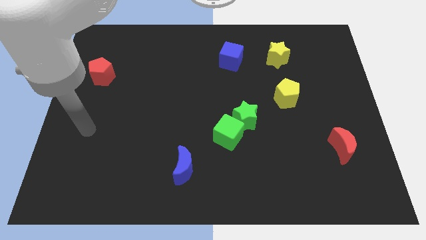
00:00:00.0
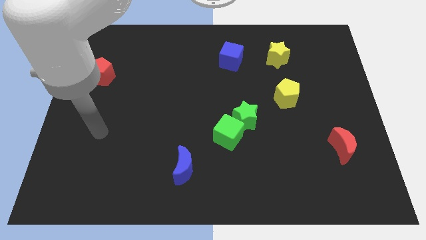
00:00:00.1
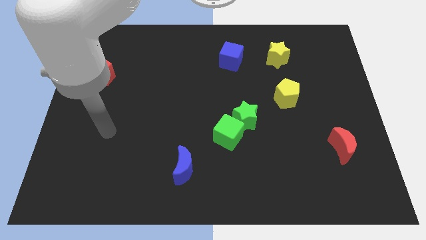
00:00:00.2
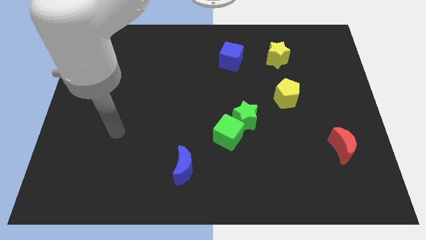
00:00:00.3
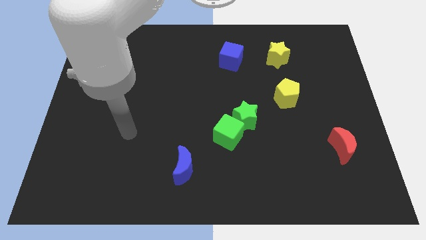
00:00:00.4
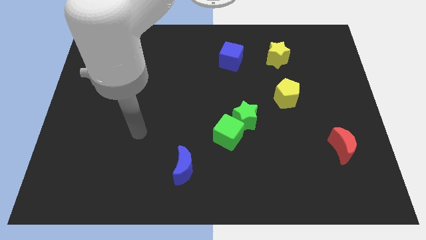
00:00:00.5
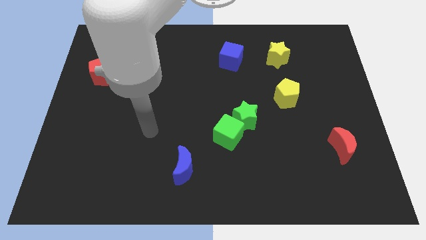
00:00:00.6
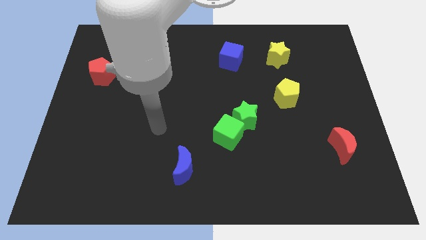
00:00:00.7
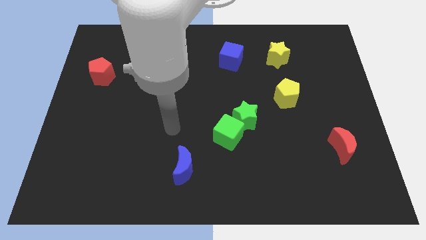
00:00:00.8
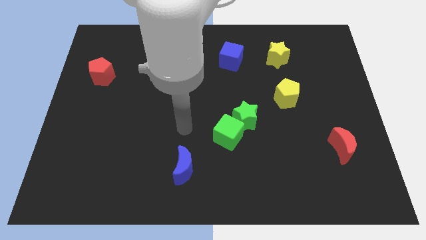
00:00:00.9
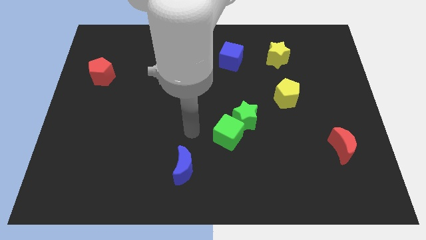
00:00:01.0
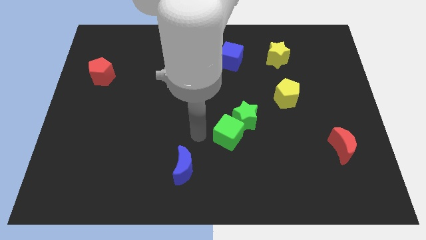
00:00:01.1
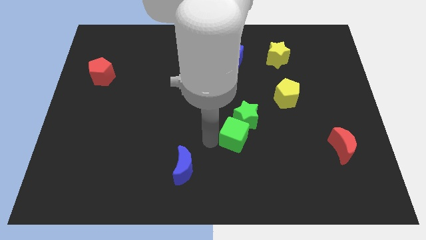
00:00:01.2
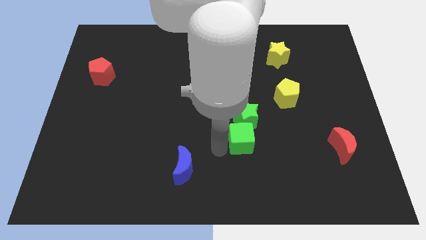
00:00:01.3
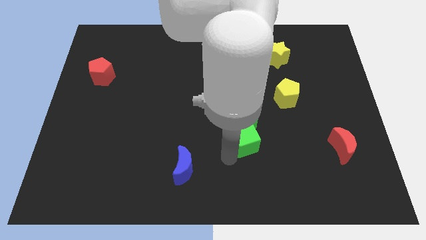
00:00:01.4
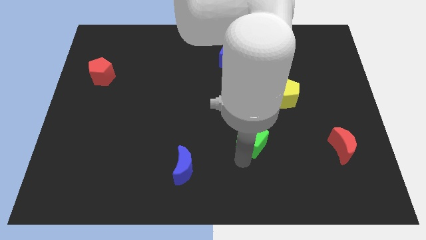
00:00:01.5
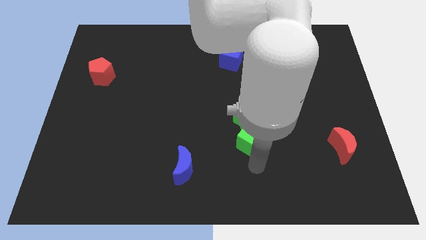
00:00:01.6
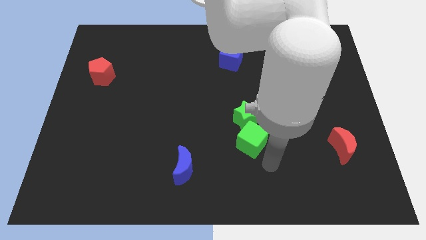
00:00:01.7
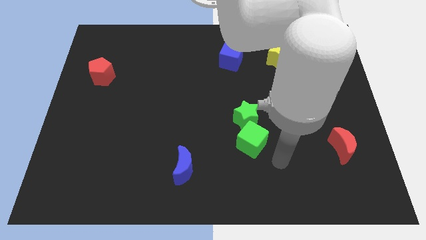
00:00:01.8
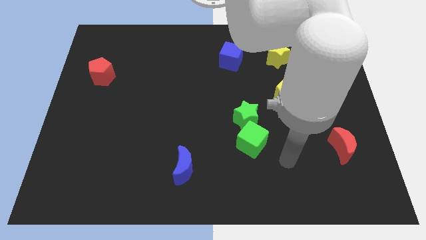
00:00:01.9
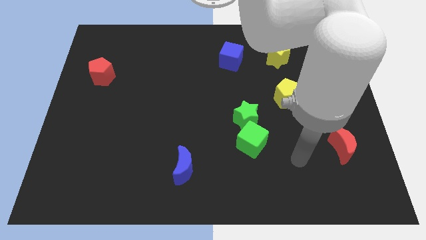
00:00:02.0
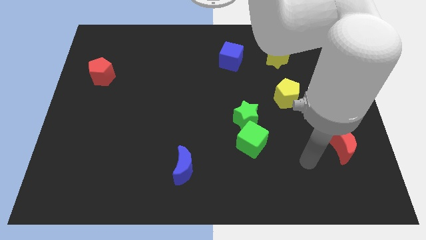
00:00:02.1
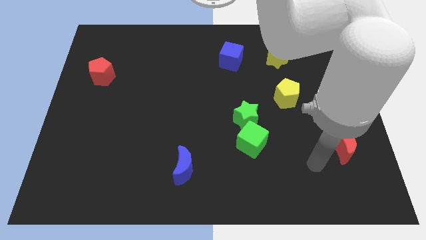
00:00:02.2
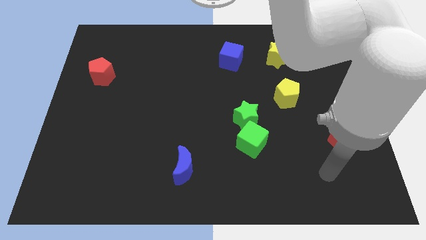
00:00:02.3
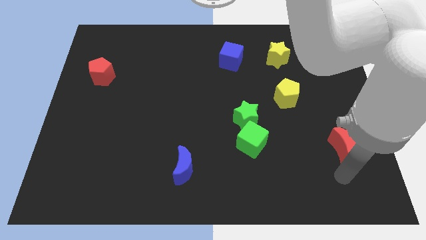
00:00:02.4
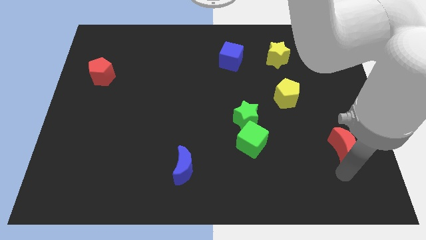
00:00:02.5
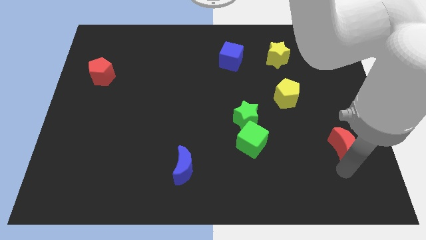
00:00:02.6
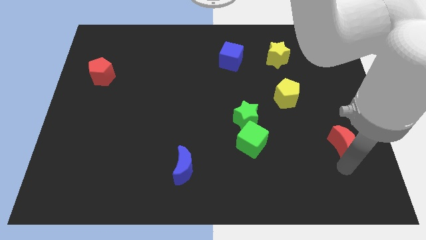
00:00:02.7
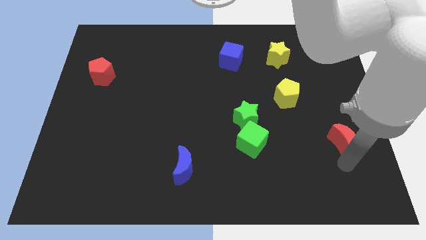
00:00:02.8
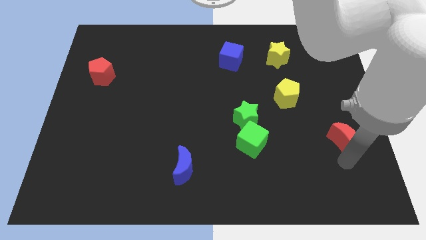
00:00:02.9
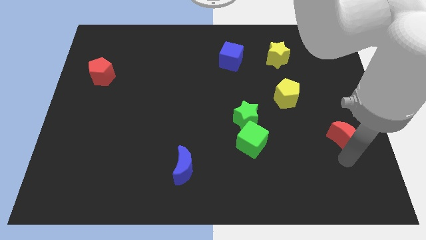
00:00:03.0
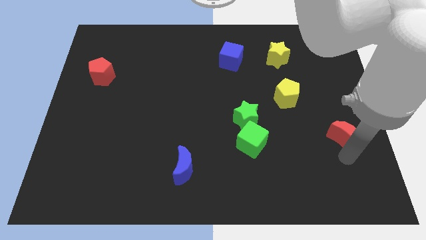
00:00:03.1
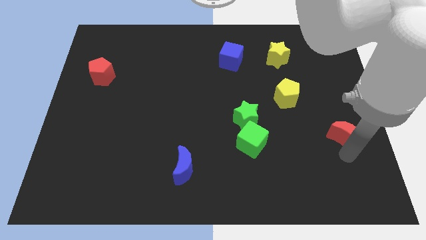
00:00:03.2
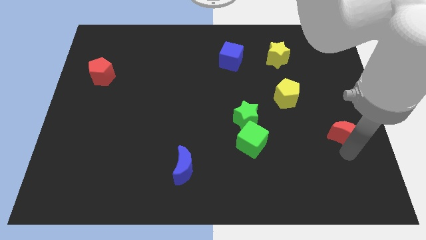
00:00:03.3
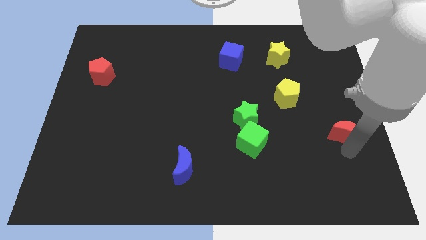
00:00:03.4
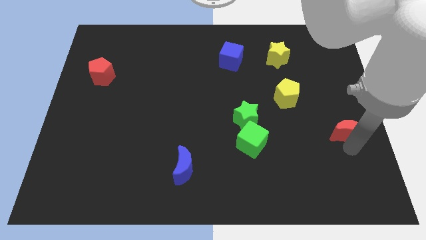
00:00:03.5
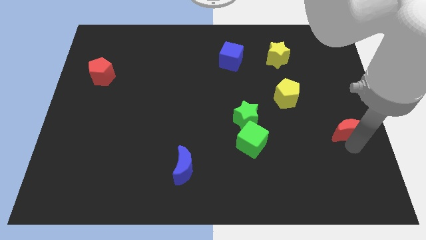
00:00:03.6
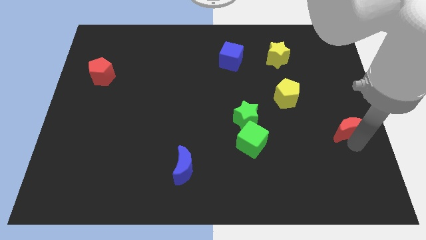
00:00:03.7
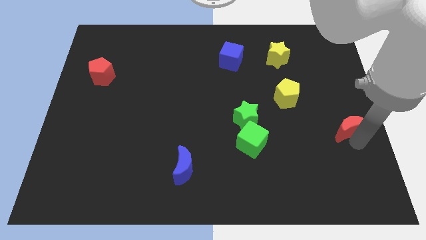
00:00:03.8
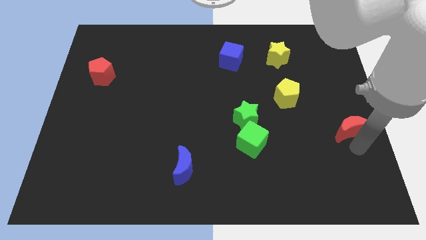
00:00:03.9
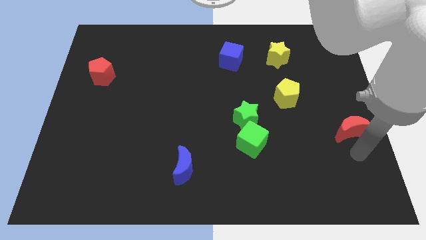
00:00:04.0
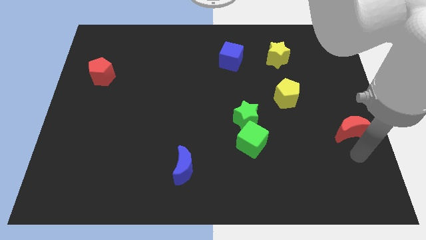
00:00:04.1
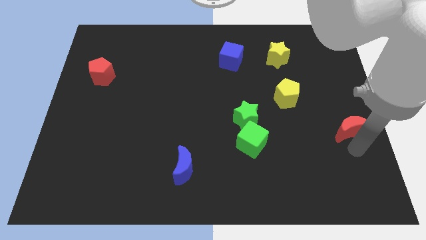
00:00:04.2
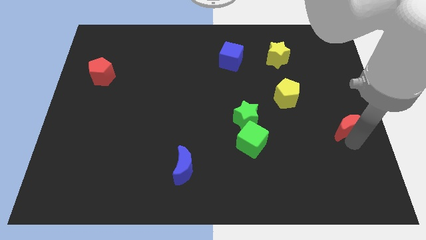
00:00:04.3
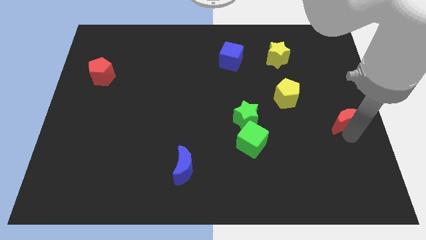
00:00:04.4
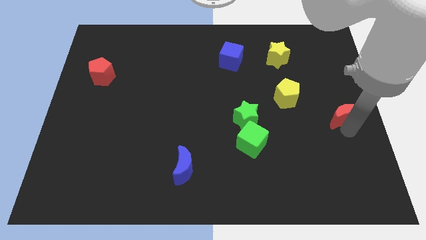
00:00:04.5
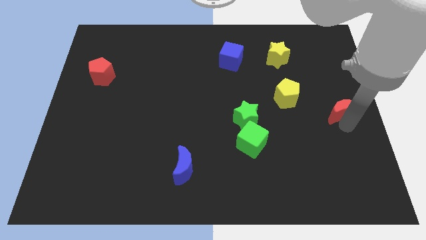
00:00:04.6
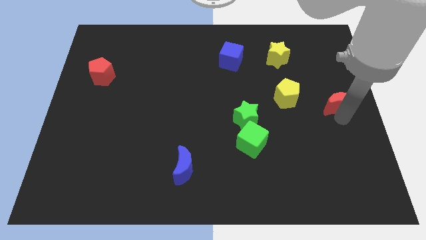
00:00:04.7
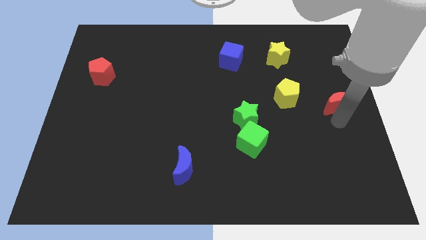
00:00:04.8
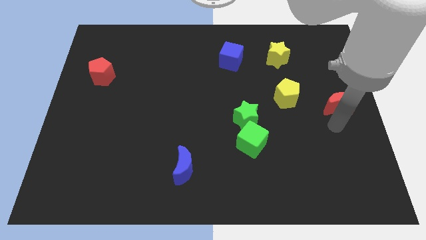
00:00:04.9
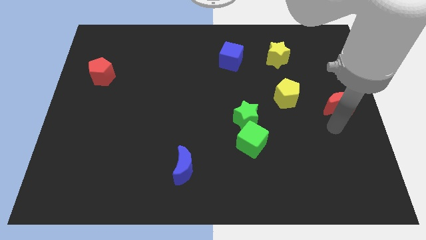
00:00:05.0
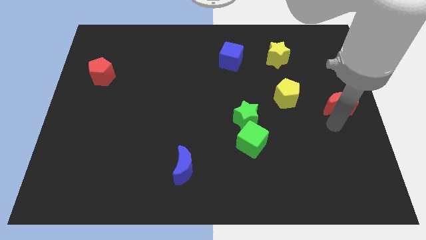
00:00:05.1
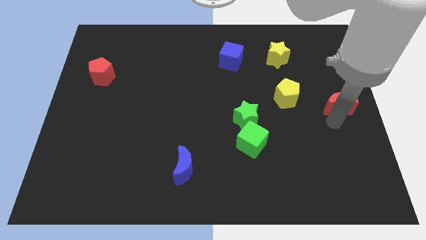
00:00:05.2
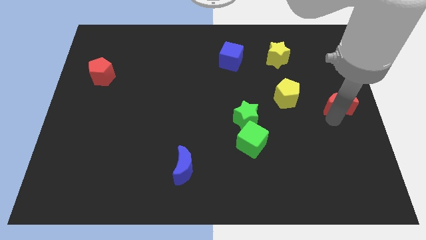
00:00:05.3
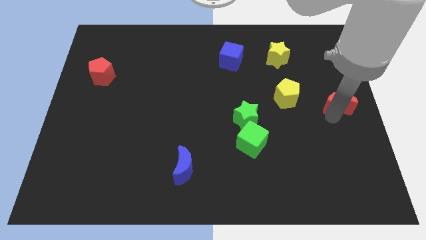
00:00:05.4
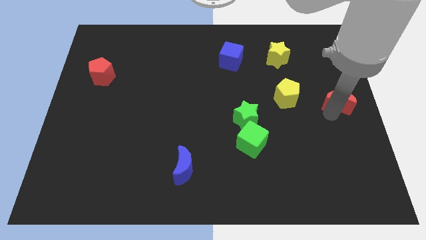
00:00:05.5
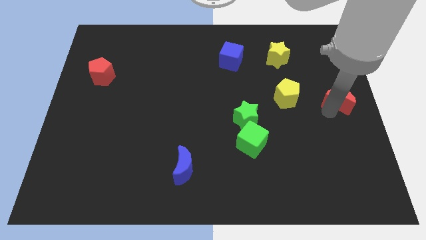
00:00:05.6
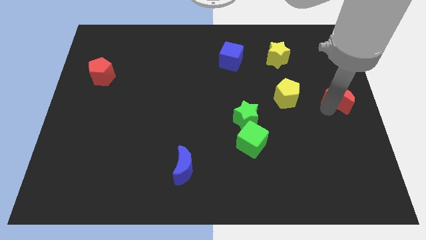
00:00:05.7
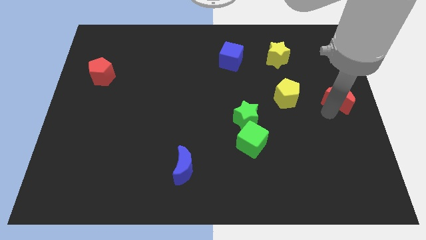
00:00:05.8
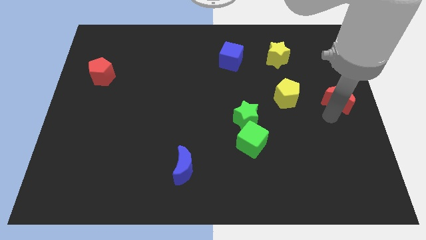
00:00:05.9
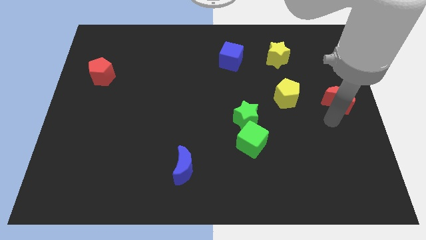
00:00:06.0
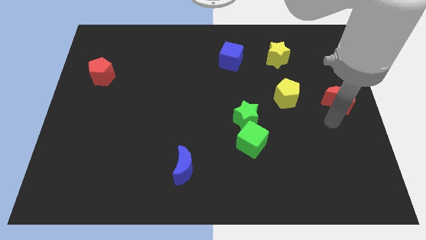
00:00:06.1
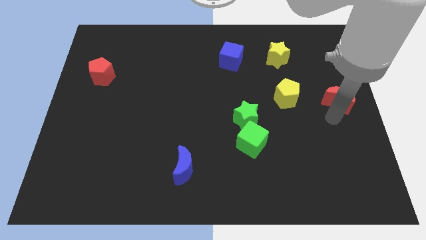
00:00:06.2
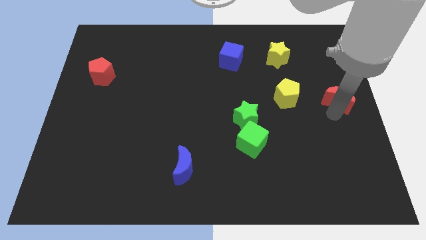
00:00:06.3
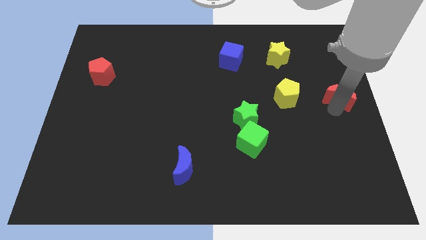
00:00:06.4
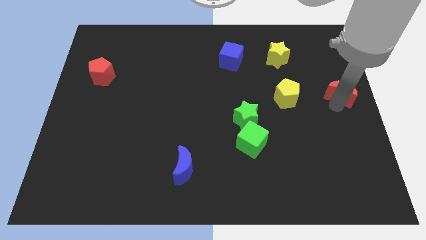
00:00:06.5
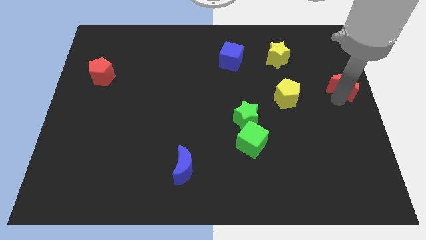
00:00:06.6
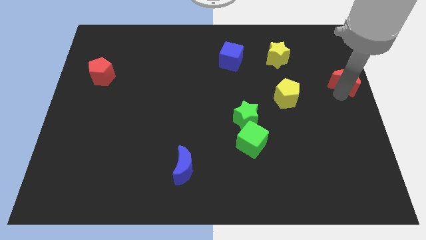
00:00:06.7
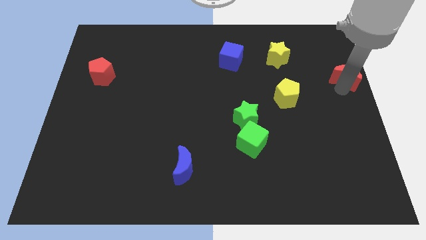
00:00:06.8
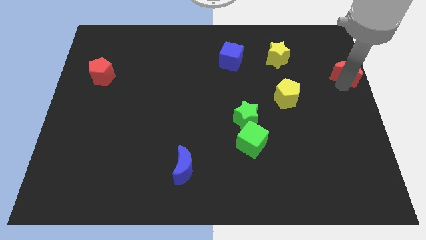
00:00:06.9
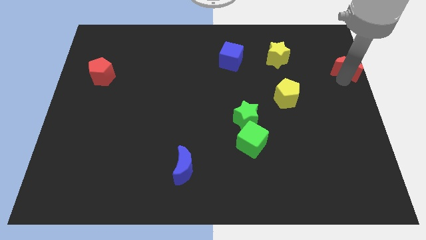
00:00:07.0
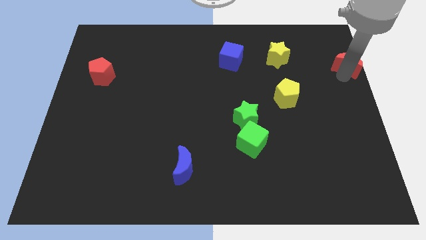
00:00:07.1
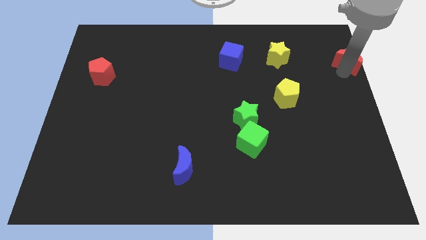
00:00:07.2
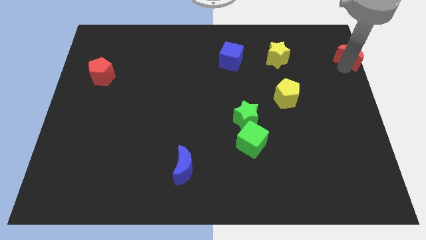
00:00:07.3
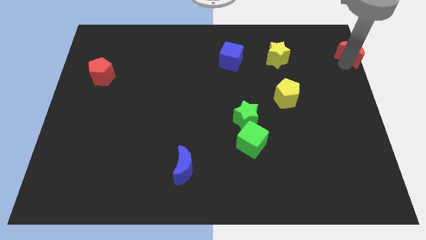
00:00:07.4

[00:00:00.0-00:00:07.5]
put the red moon to the top right
